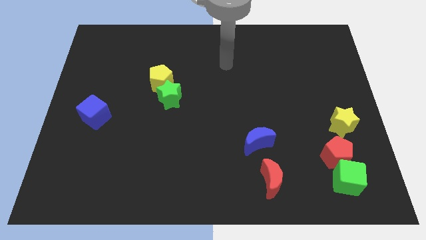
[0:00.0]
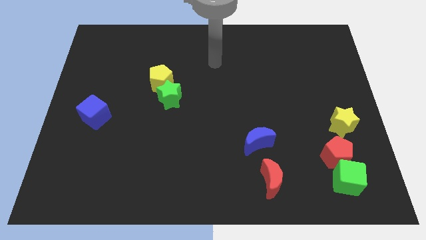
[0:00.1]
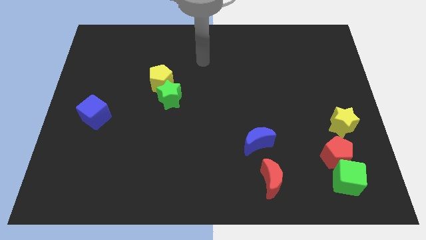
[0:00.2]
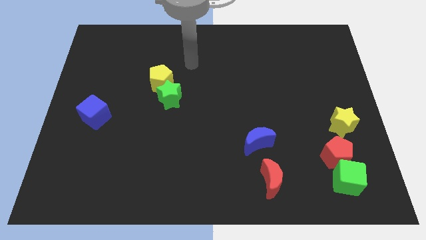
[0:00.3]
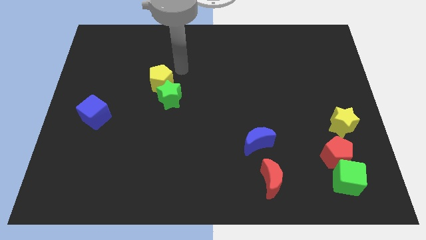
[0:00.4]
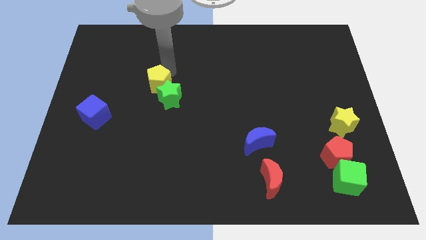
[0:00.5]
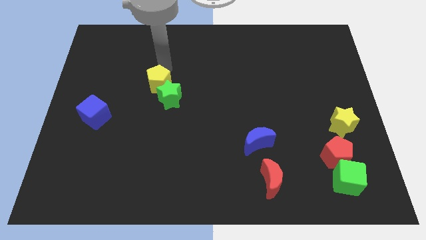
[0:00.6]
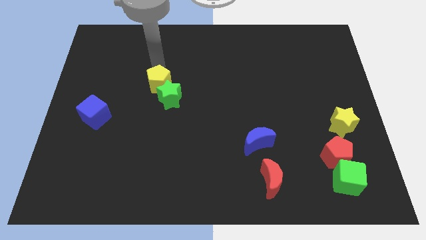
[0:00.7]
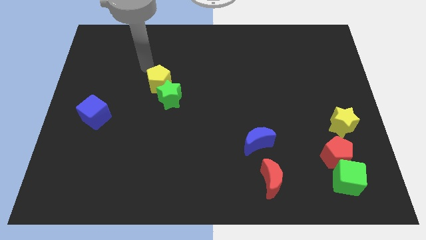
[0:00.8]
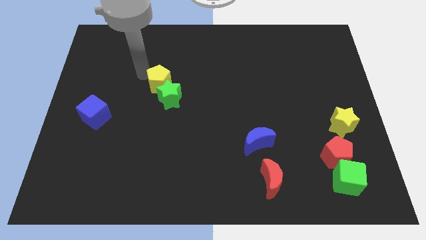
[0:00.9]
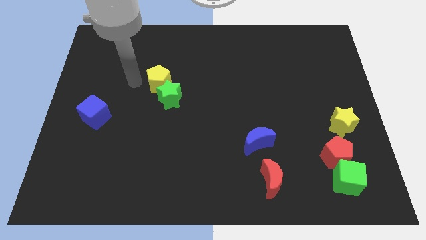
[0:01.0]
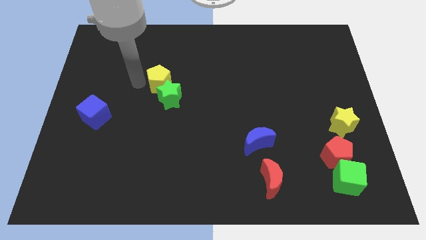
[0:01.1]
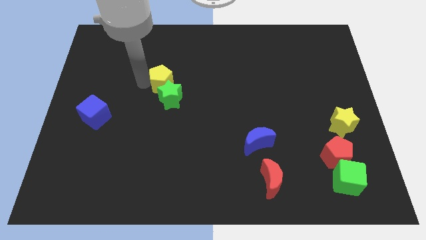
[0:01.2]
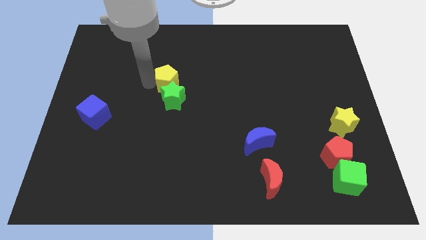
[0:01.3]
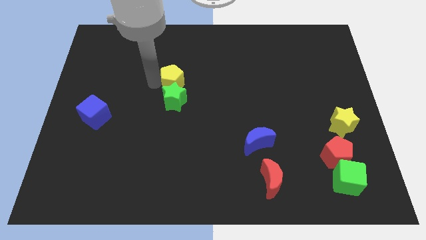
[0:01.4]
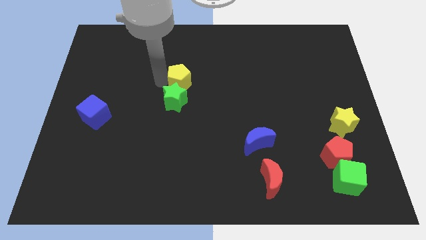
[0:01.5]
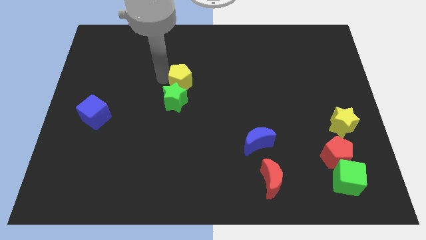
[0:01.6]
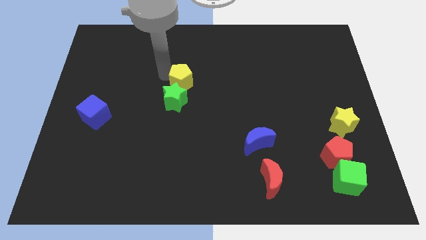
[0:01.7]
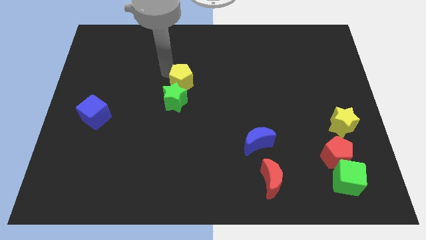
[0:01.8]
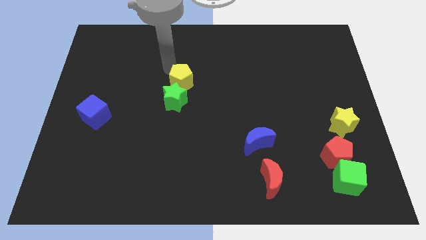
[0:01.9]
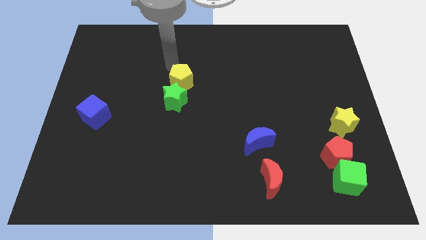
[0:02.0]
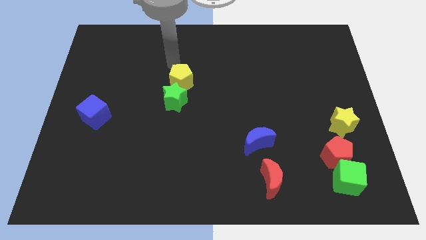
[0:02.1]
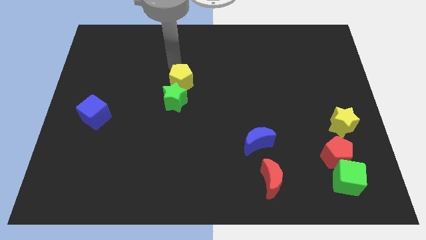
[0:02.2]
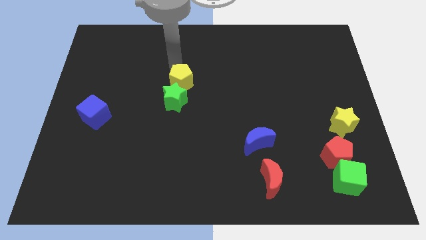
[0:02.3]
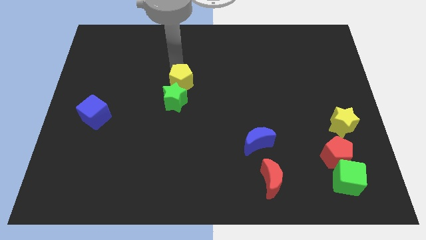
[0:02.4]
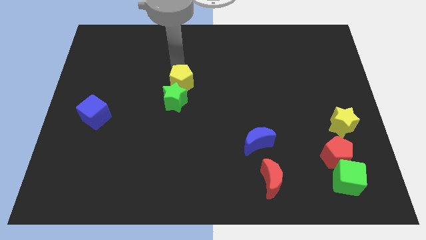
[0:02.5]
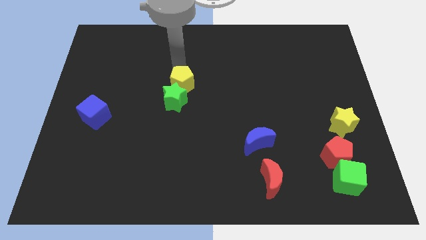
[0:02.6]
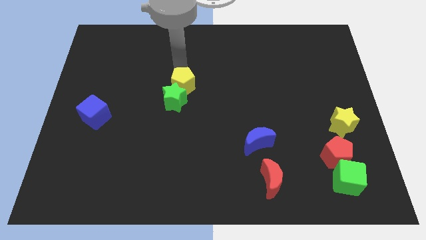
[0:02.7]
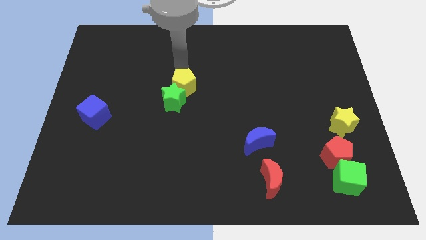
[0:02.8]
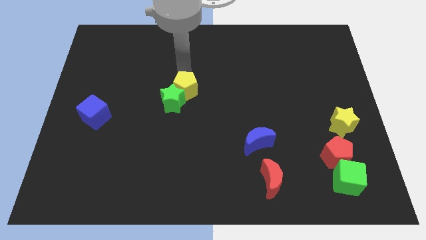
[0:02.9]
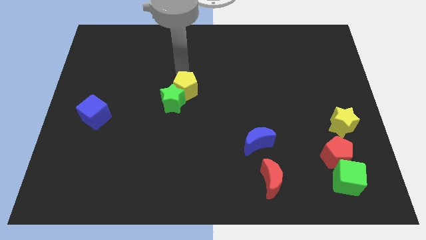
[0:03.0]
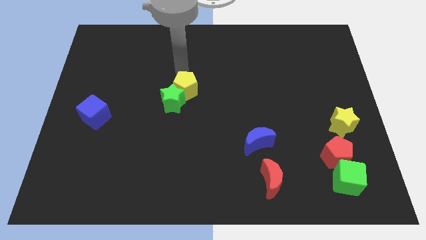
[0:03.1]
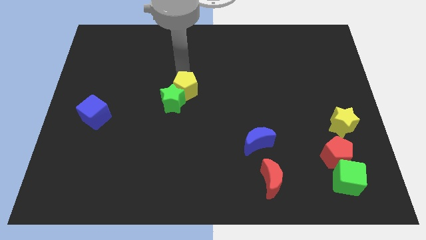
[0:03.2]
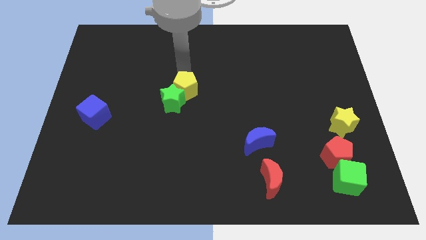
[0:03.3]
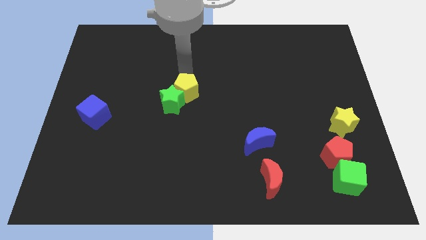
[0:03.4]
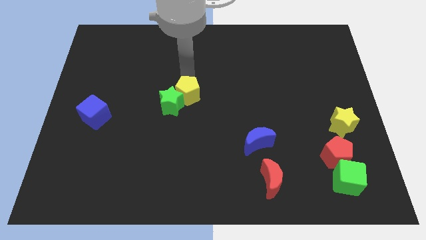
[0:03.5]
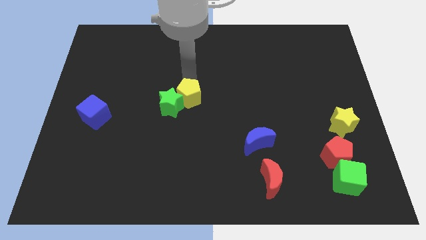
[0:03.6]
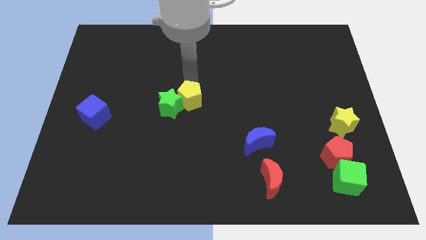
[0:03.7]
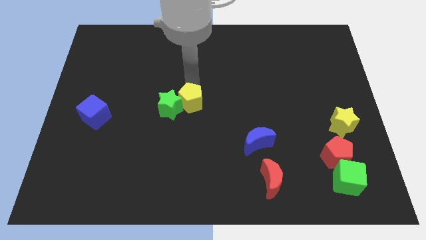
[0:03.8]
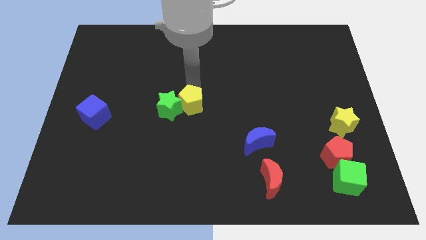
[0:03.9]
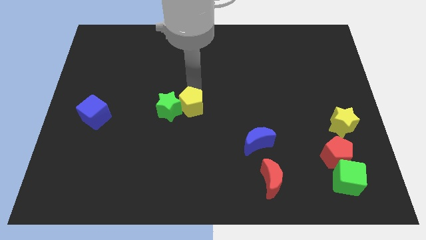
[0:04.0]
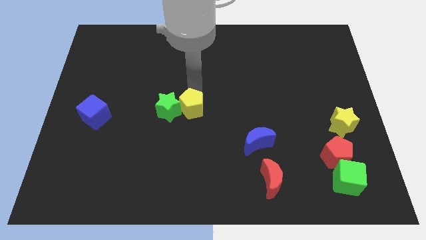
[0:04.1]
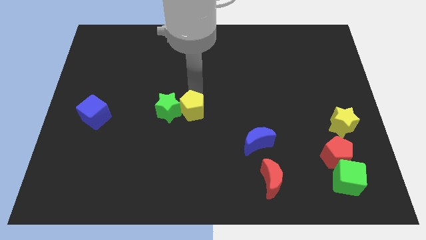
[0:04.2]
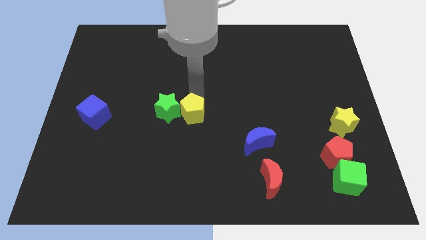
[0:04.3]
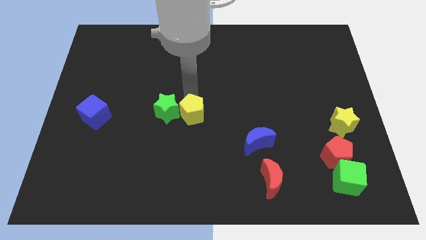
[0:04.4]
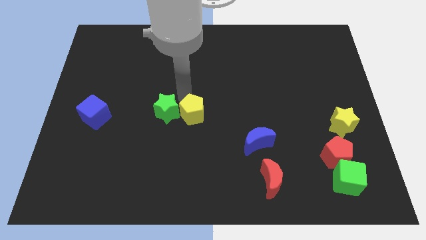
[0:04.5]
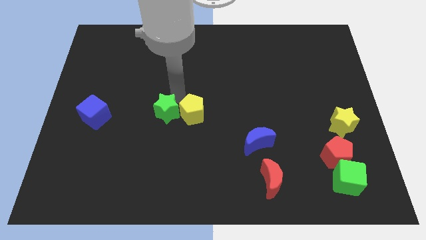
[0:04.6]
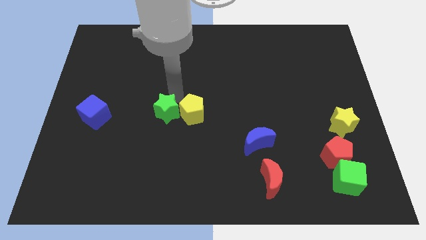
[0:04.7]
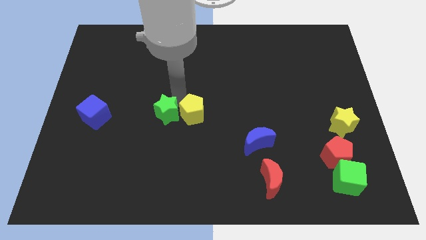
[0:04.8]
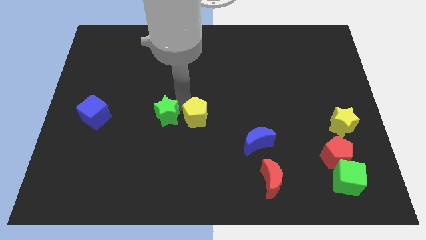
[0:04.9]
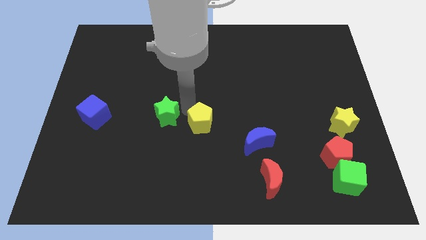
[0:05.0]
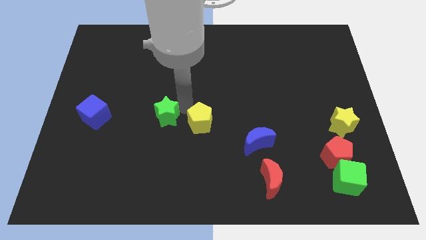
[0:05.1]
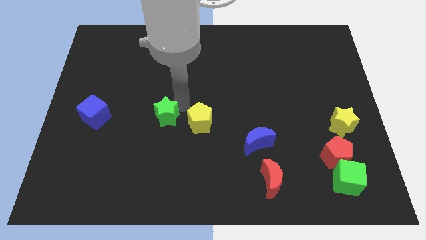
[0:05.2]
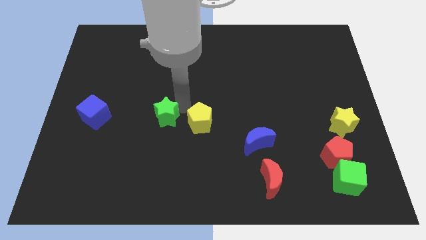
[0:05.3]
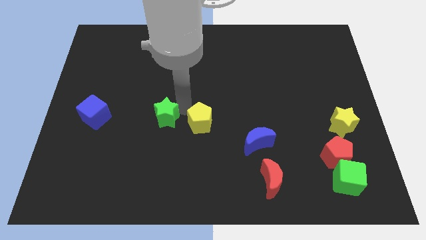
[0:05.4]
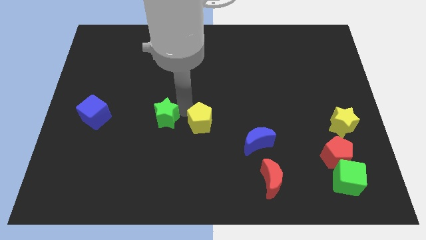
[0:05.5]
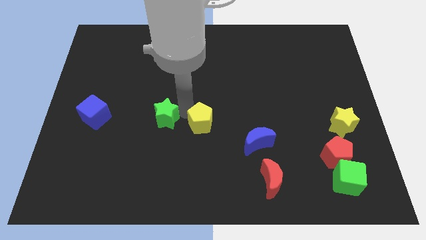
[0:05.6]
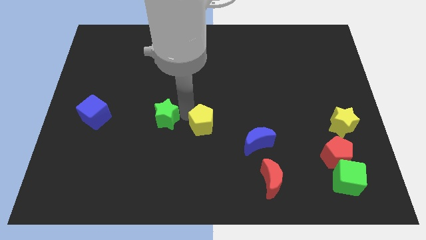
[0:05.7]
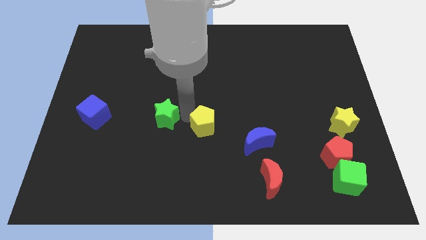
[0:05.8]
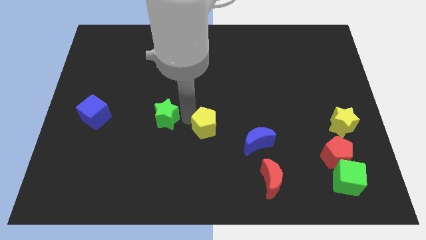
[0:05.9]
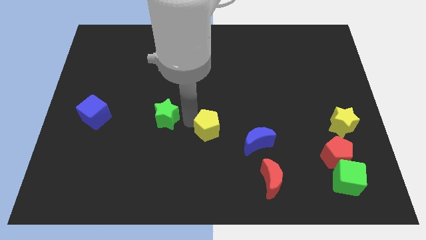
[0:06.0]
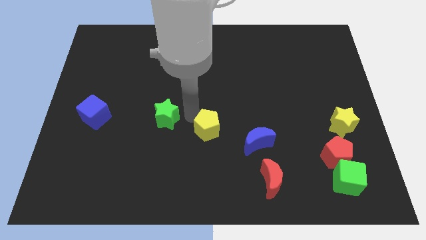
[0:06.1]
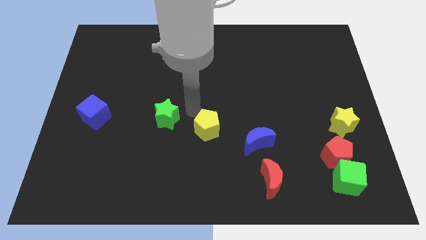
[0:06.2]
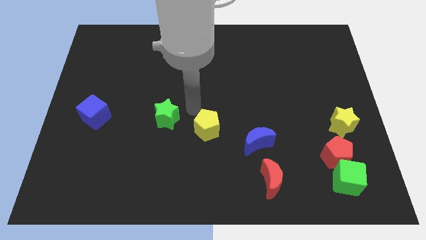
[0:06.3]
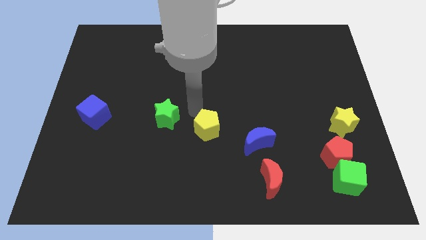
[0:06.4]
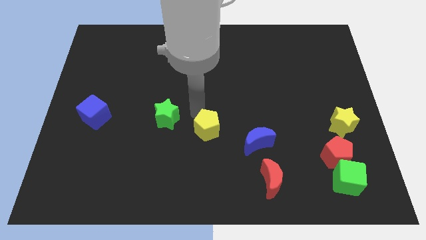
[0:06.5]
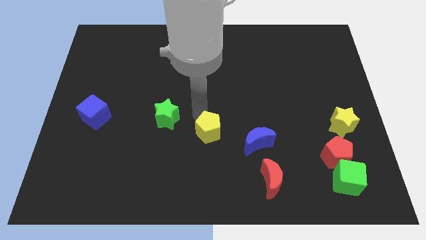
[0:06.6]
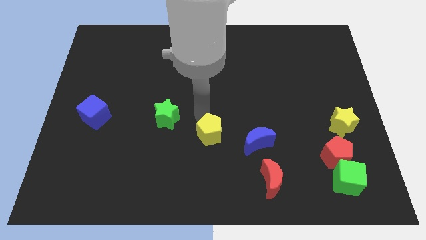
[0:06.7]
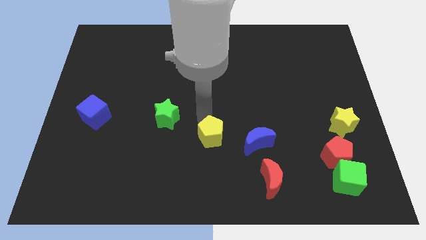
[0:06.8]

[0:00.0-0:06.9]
move the yellow pentagon diagonally down and to the right

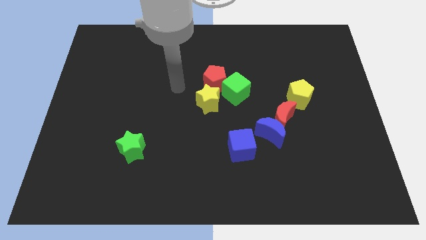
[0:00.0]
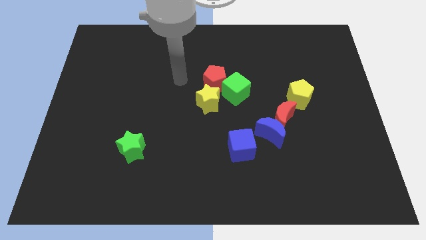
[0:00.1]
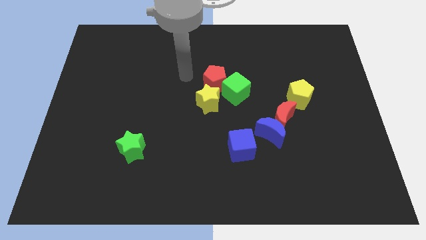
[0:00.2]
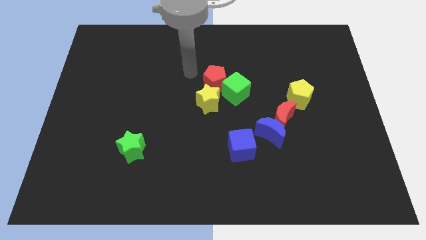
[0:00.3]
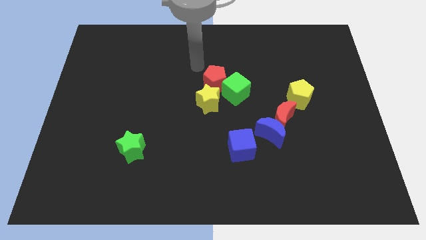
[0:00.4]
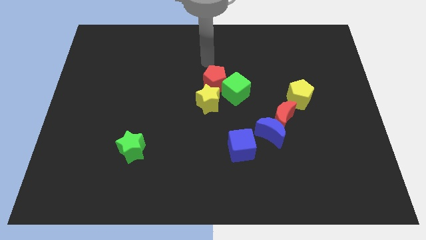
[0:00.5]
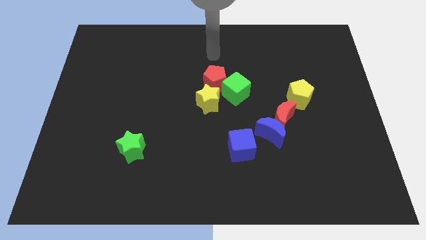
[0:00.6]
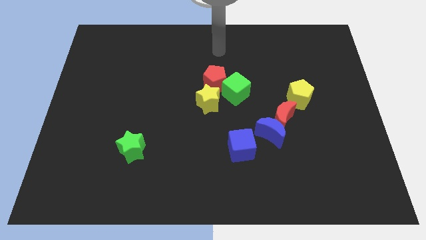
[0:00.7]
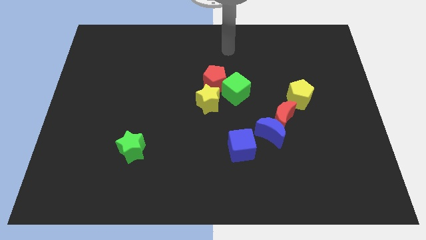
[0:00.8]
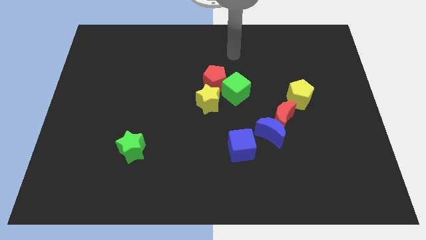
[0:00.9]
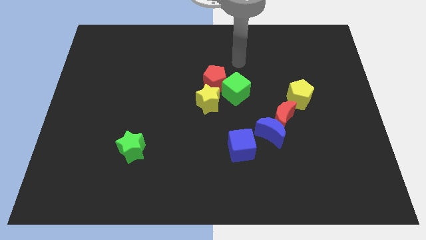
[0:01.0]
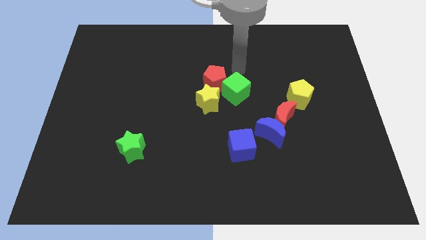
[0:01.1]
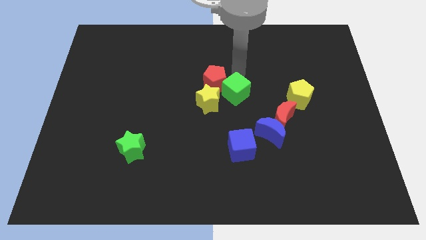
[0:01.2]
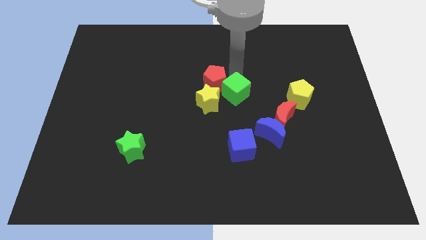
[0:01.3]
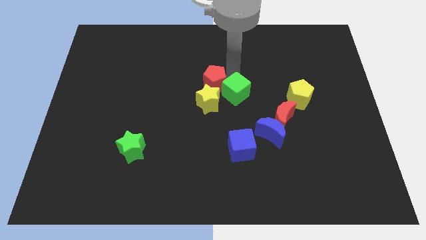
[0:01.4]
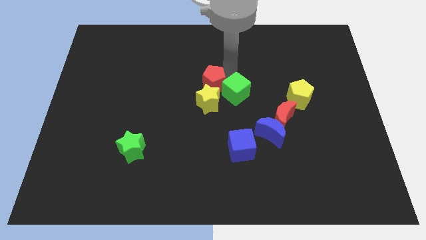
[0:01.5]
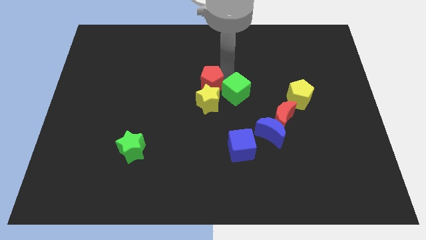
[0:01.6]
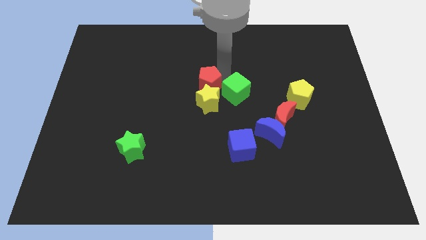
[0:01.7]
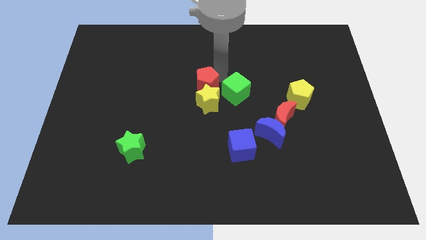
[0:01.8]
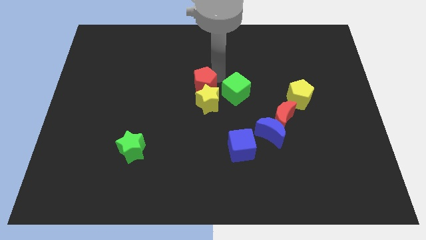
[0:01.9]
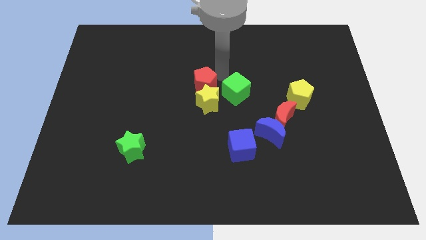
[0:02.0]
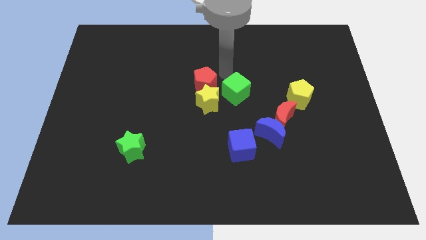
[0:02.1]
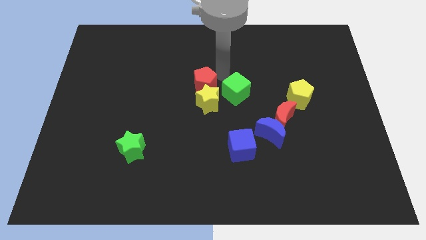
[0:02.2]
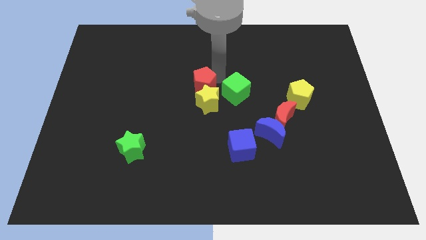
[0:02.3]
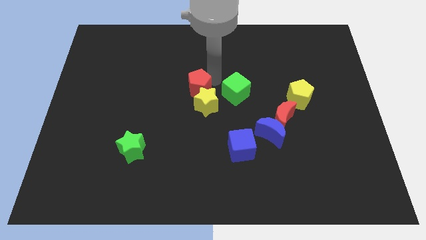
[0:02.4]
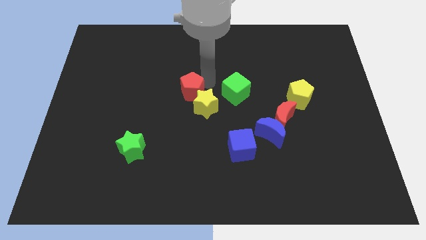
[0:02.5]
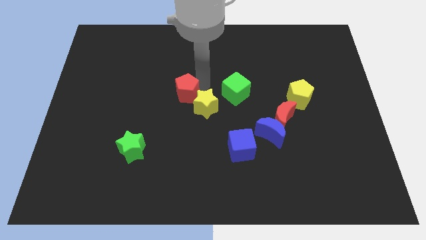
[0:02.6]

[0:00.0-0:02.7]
slide the red pentagon slightly downwards and left diagonally
